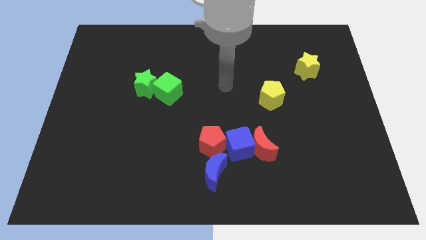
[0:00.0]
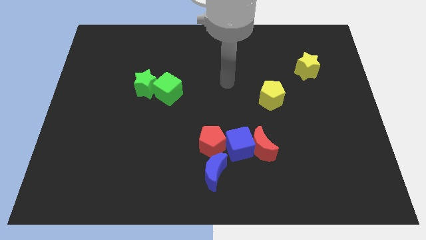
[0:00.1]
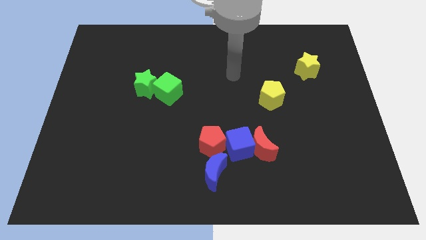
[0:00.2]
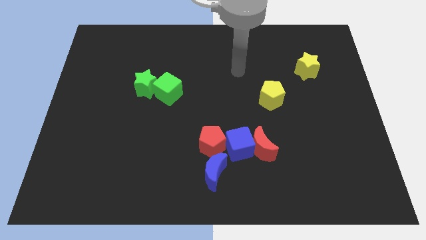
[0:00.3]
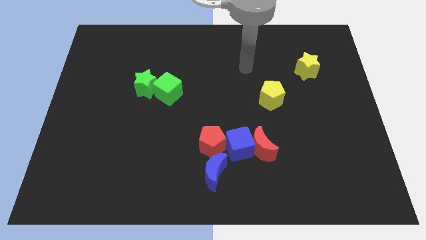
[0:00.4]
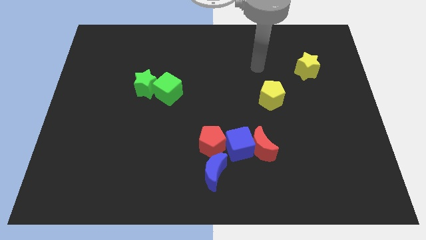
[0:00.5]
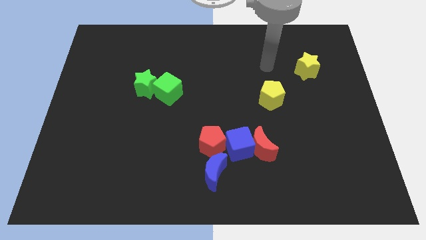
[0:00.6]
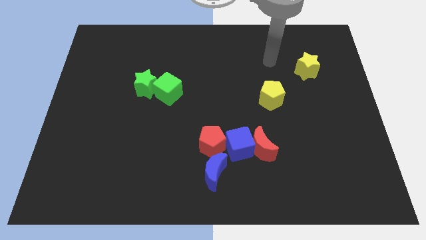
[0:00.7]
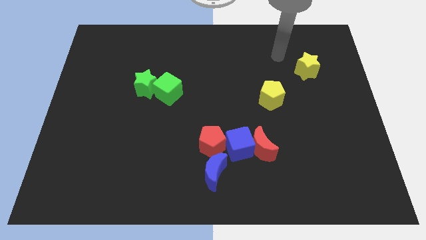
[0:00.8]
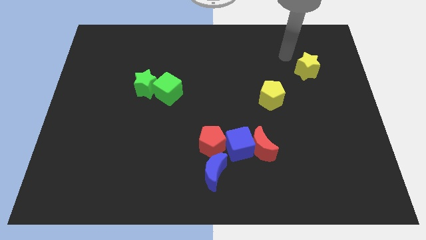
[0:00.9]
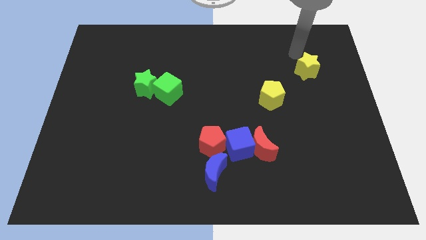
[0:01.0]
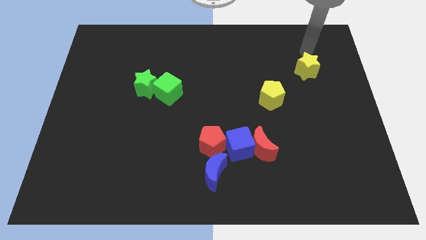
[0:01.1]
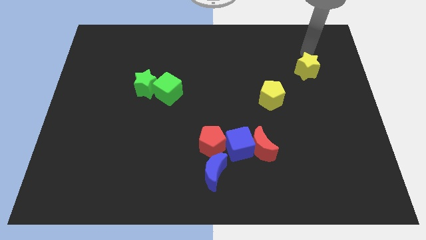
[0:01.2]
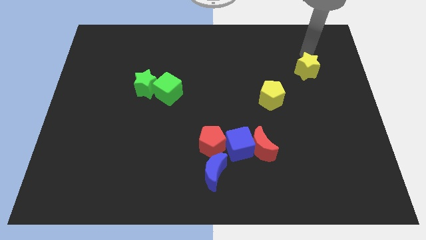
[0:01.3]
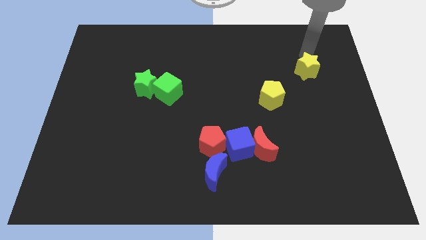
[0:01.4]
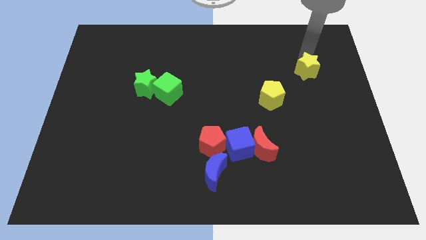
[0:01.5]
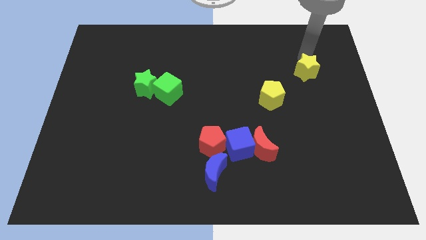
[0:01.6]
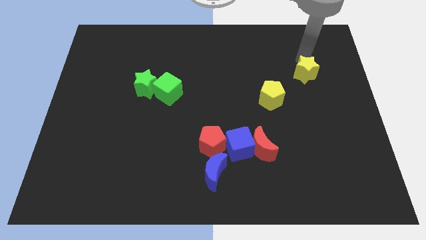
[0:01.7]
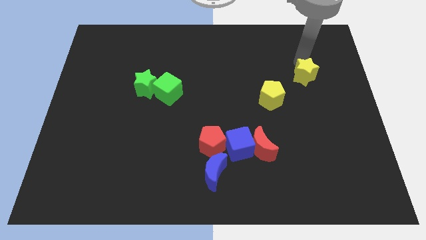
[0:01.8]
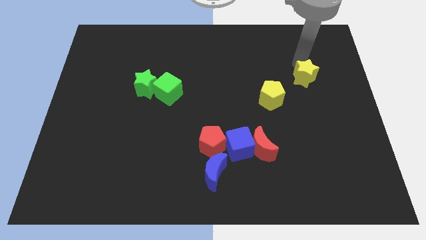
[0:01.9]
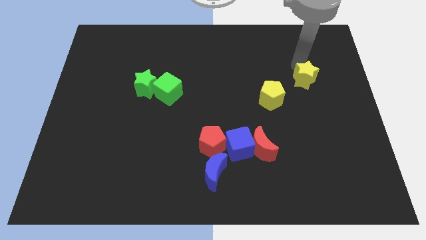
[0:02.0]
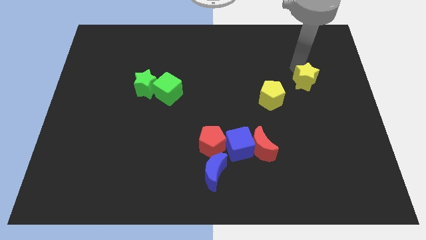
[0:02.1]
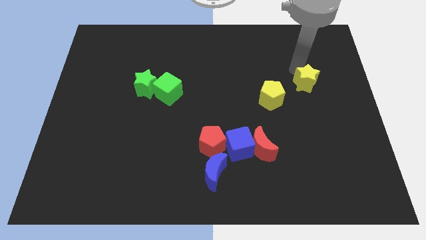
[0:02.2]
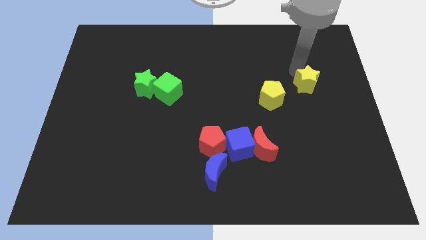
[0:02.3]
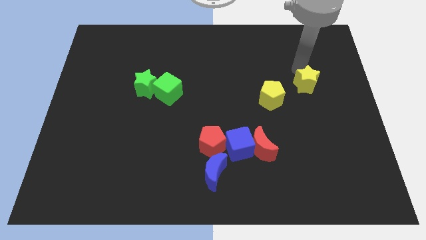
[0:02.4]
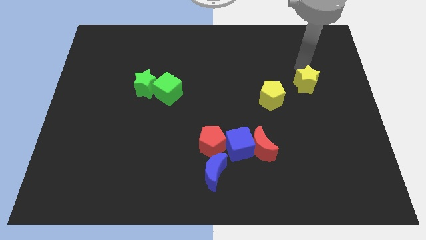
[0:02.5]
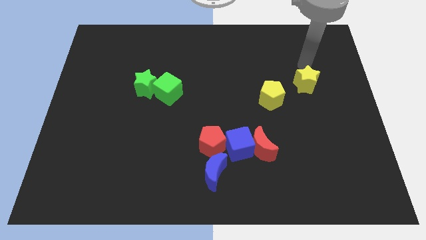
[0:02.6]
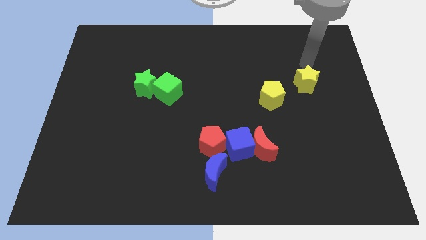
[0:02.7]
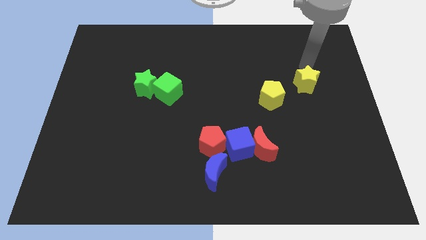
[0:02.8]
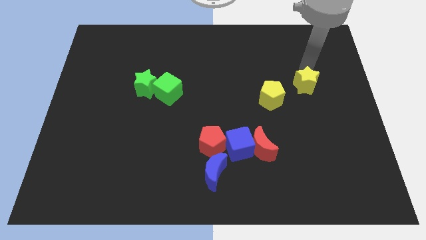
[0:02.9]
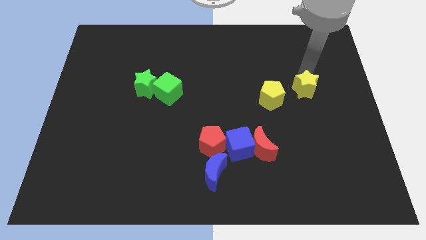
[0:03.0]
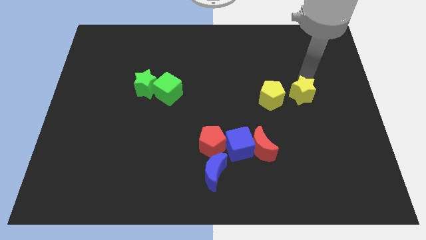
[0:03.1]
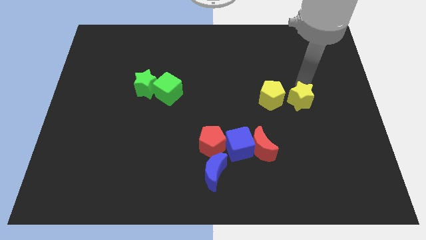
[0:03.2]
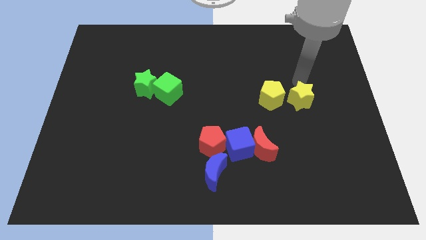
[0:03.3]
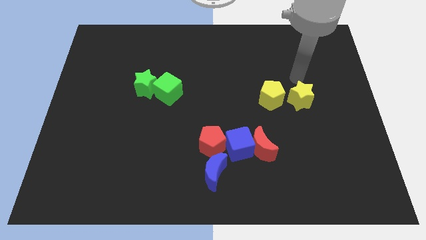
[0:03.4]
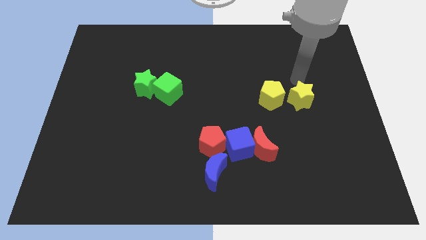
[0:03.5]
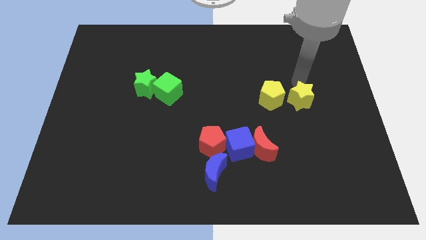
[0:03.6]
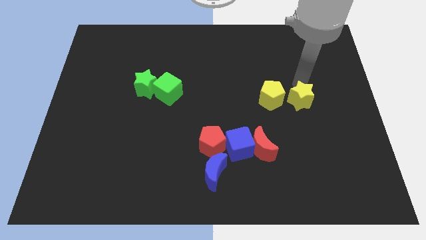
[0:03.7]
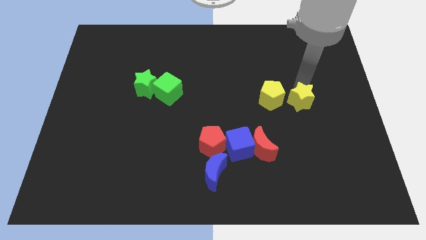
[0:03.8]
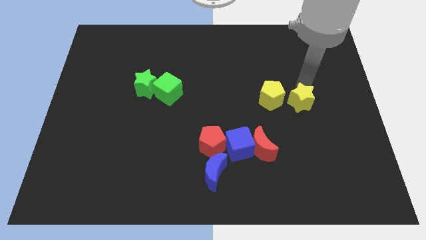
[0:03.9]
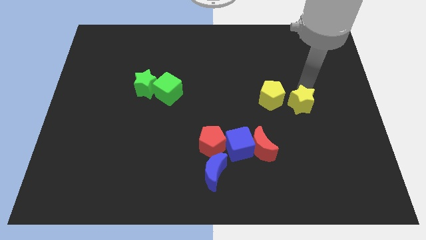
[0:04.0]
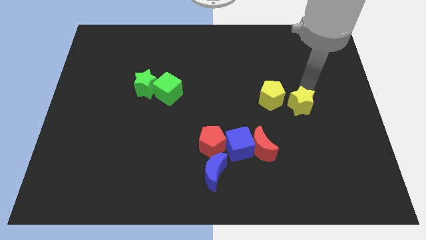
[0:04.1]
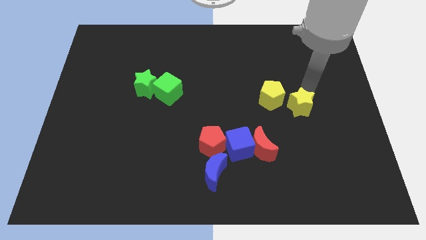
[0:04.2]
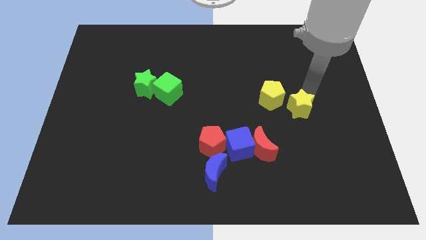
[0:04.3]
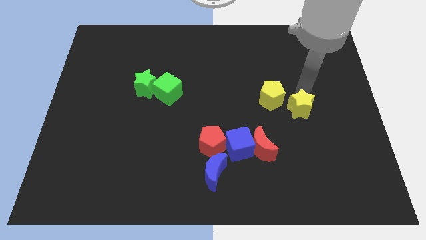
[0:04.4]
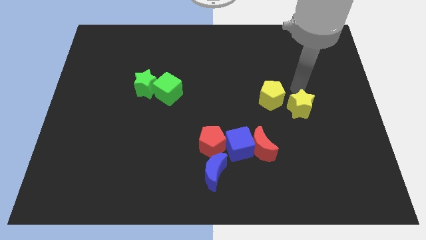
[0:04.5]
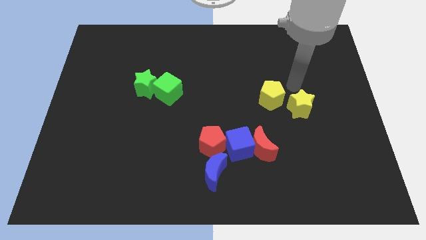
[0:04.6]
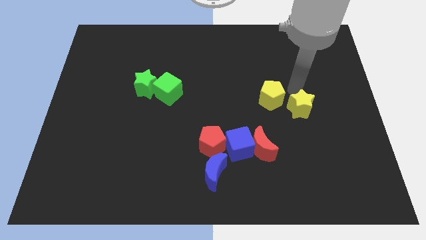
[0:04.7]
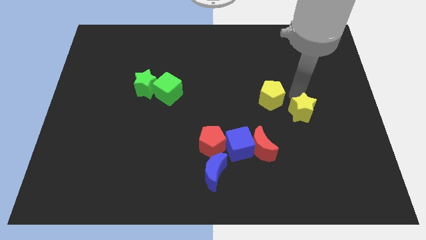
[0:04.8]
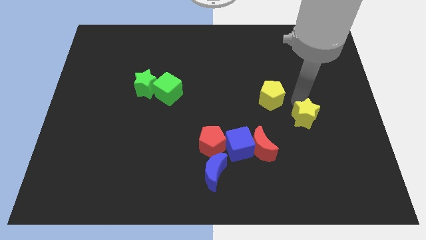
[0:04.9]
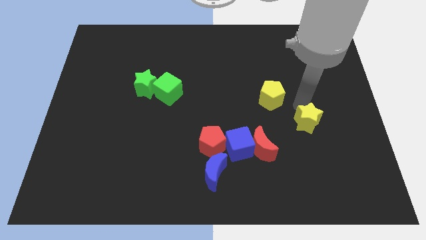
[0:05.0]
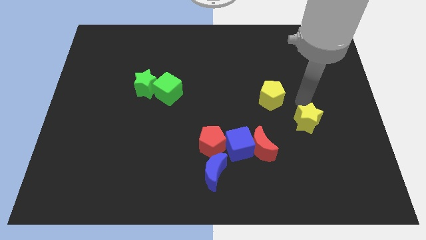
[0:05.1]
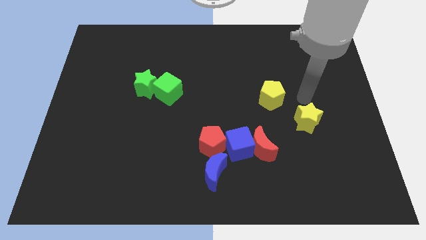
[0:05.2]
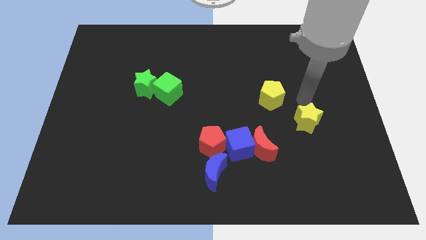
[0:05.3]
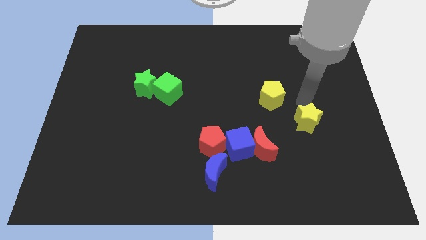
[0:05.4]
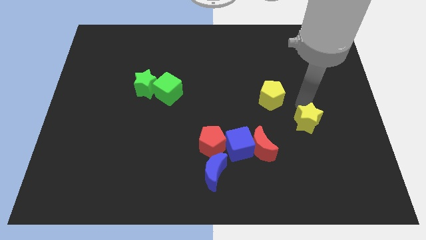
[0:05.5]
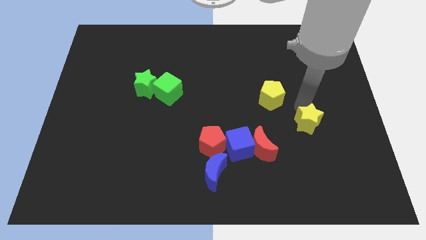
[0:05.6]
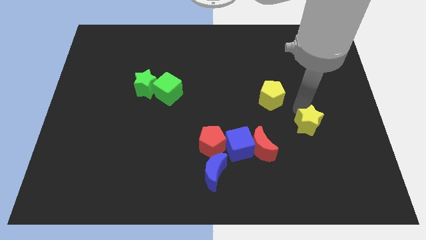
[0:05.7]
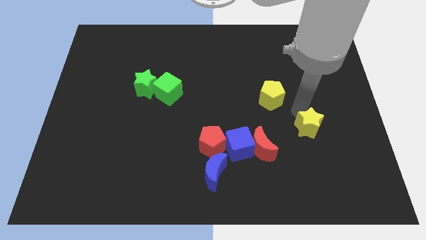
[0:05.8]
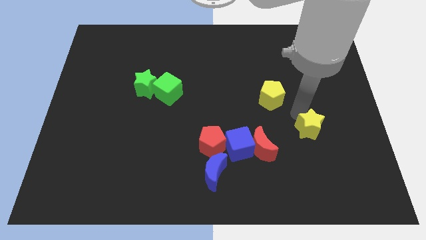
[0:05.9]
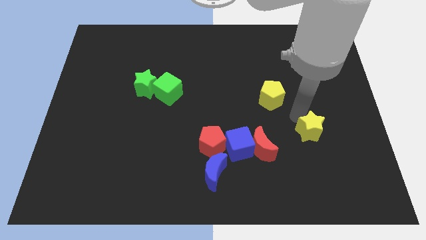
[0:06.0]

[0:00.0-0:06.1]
push the yellow star just right of the red moon

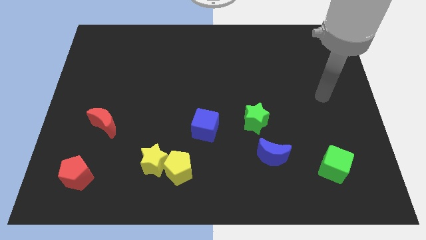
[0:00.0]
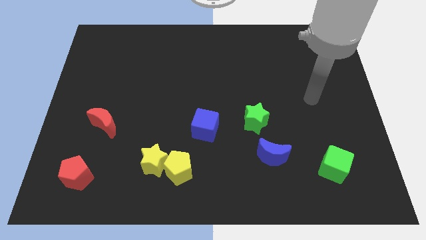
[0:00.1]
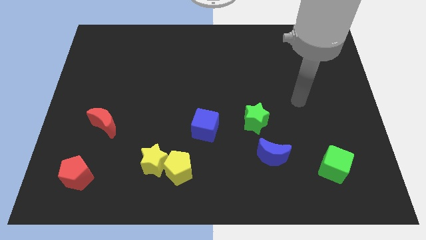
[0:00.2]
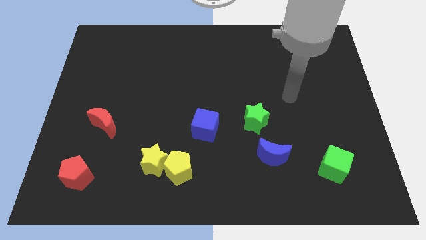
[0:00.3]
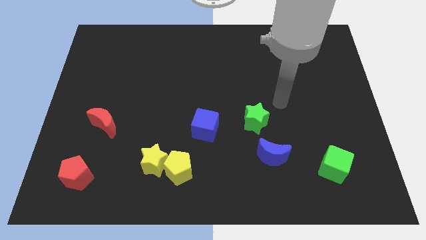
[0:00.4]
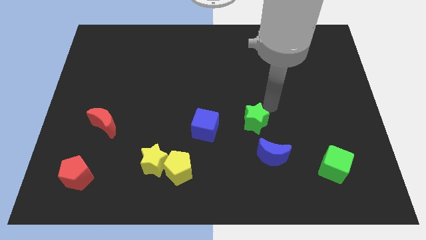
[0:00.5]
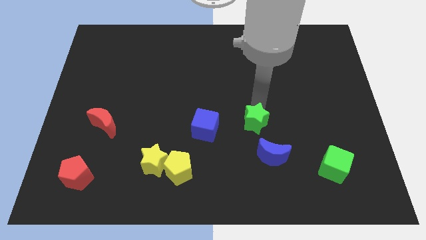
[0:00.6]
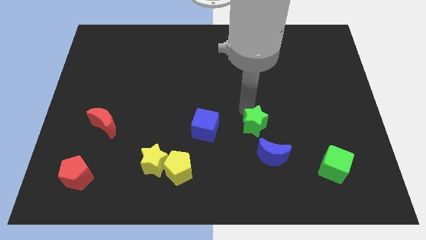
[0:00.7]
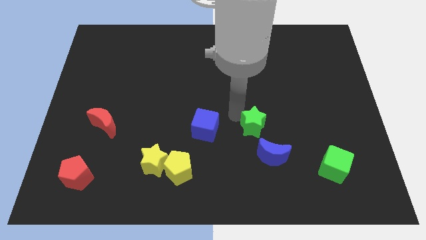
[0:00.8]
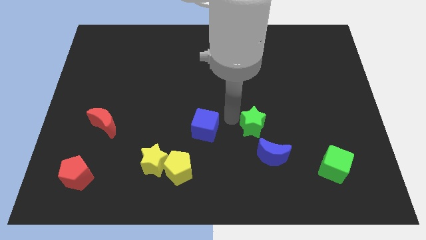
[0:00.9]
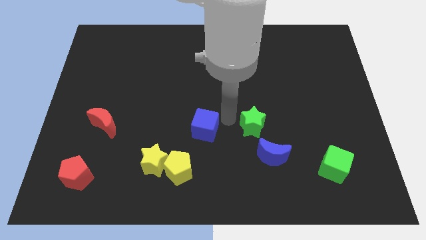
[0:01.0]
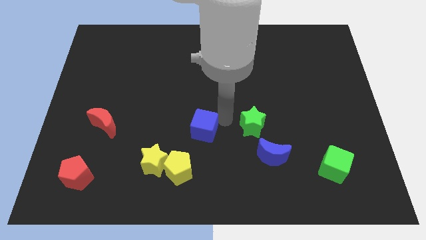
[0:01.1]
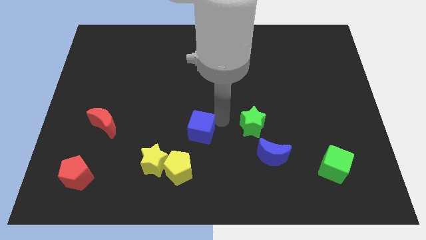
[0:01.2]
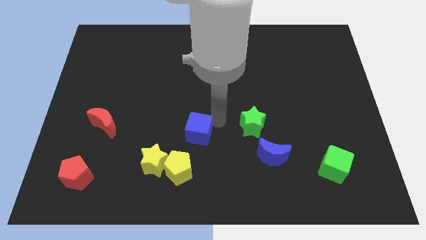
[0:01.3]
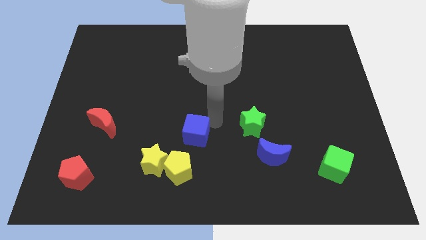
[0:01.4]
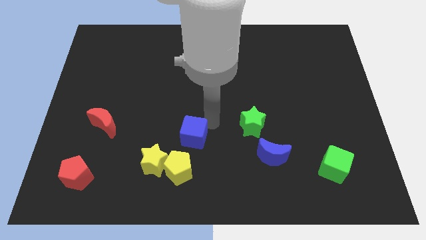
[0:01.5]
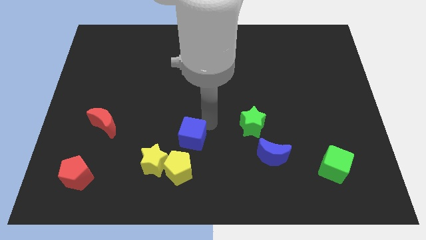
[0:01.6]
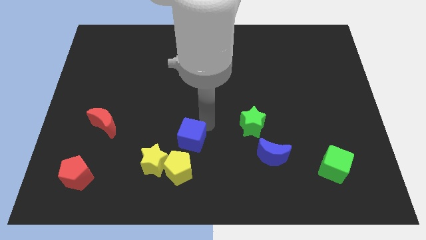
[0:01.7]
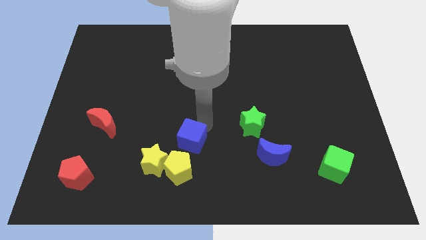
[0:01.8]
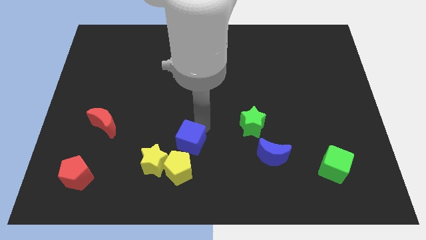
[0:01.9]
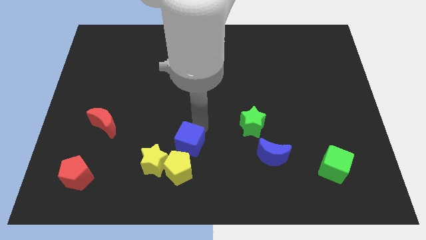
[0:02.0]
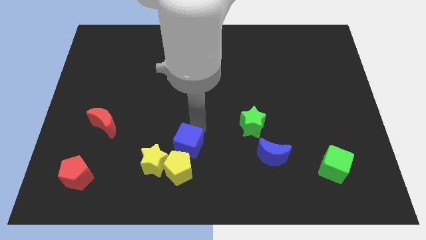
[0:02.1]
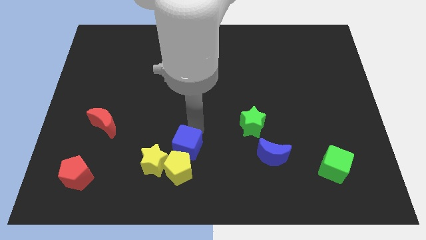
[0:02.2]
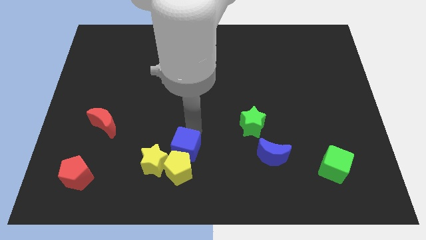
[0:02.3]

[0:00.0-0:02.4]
push the blue cube to the top left side of the yellow pentagon
